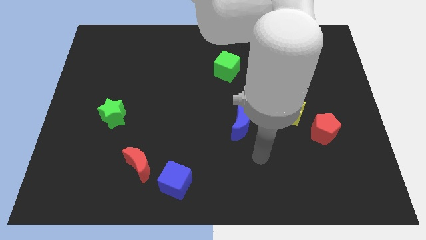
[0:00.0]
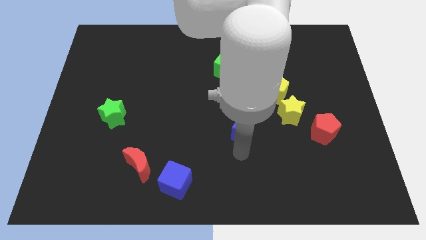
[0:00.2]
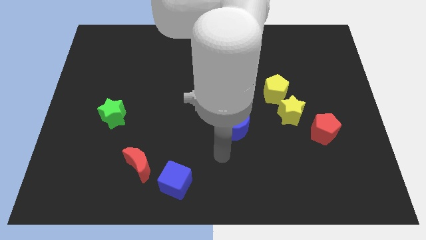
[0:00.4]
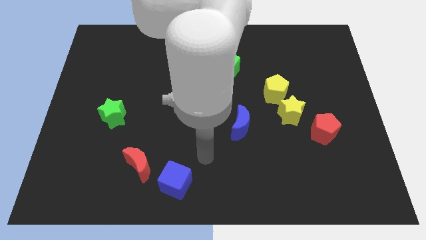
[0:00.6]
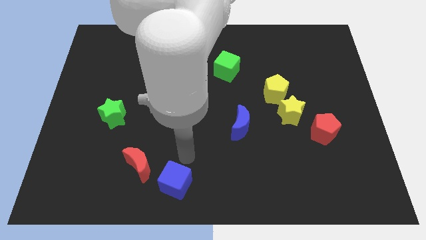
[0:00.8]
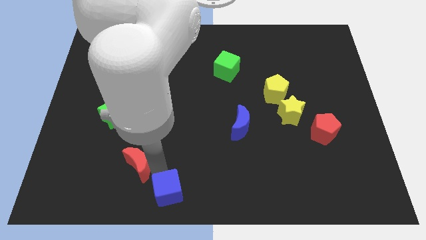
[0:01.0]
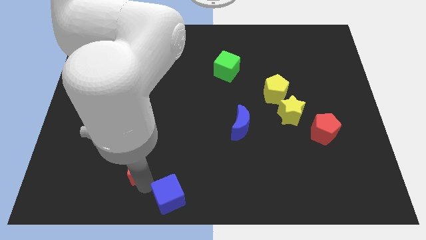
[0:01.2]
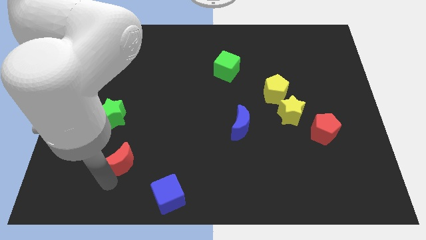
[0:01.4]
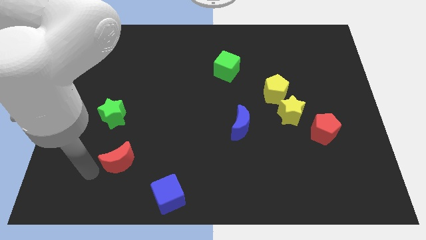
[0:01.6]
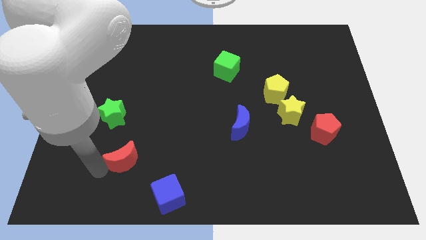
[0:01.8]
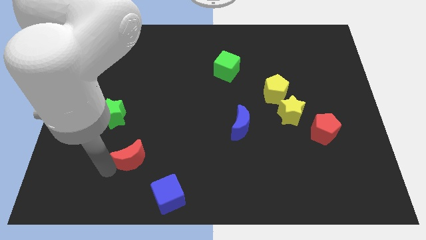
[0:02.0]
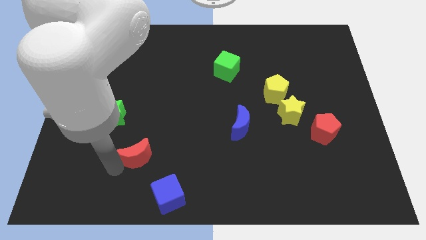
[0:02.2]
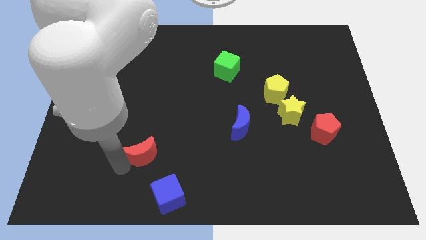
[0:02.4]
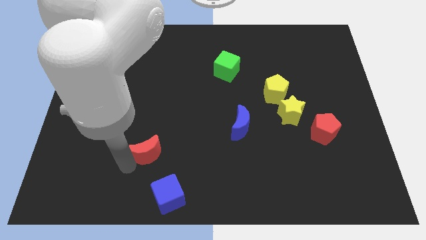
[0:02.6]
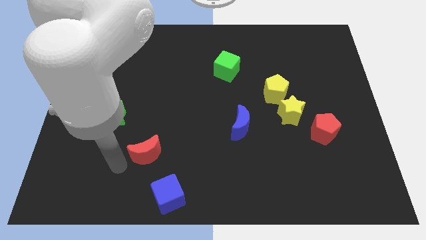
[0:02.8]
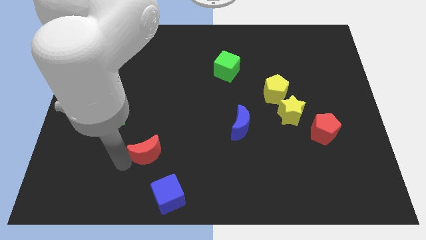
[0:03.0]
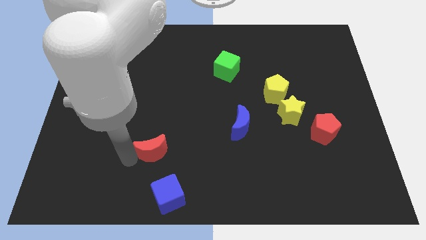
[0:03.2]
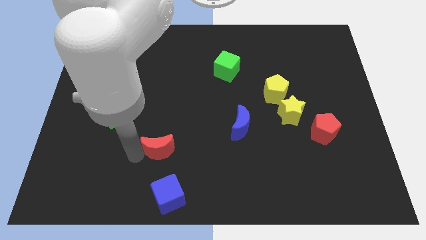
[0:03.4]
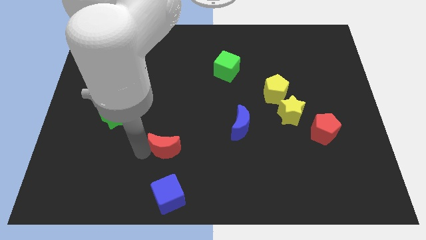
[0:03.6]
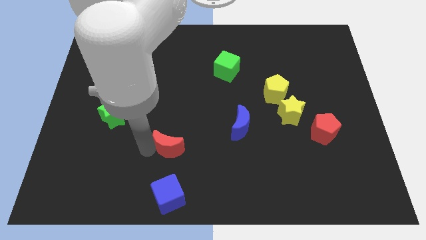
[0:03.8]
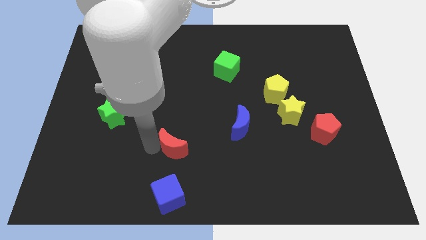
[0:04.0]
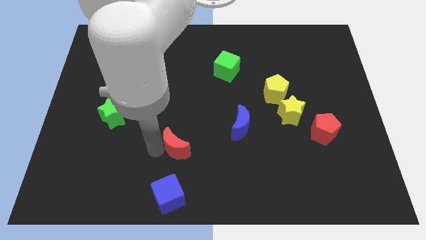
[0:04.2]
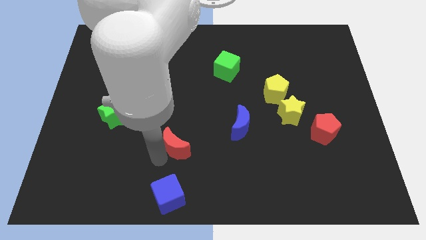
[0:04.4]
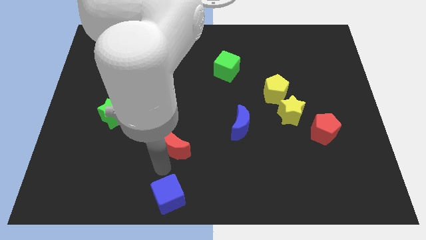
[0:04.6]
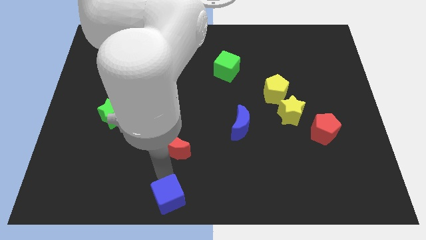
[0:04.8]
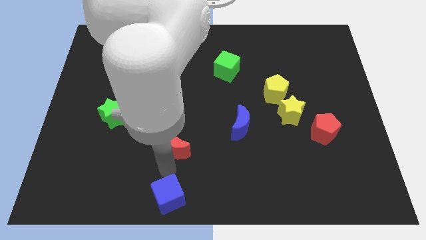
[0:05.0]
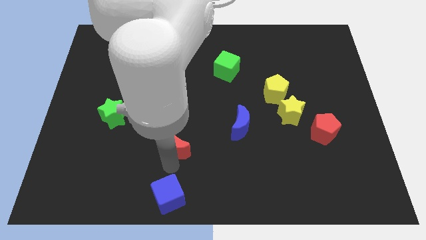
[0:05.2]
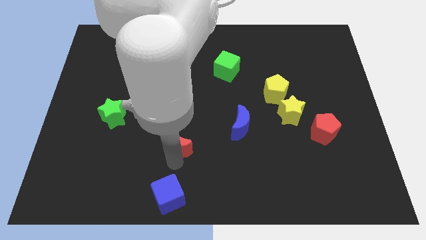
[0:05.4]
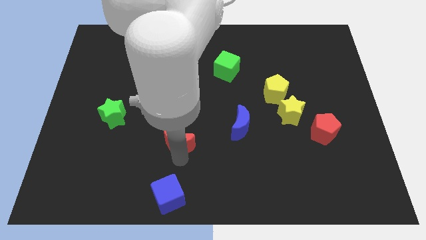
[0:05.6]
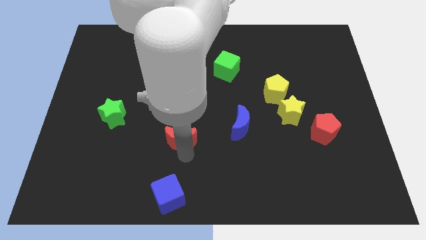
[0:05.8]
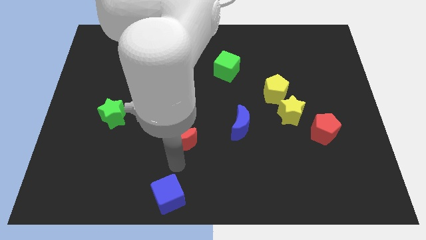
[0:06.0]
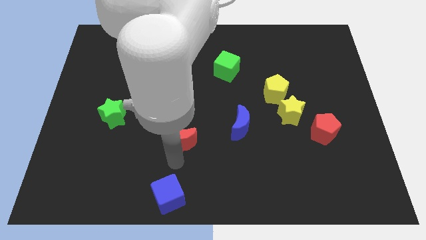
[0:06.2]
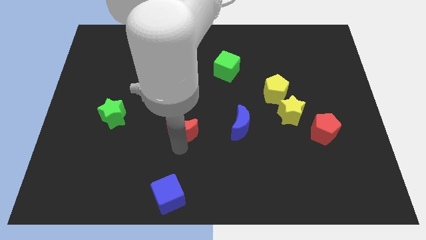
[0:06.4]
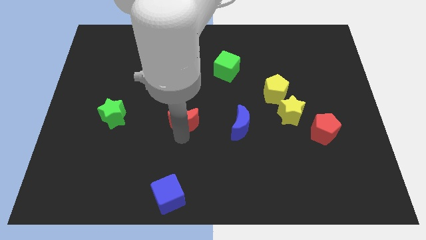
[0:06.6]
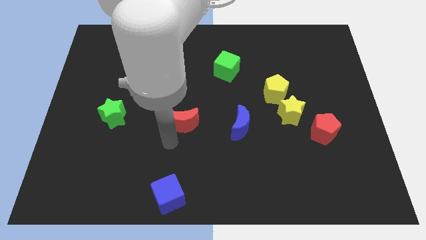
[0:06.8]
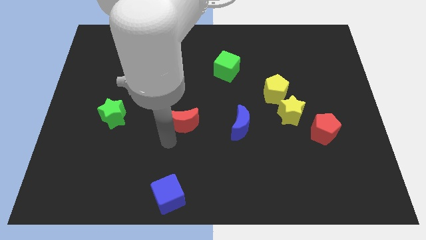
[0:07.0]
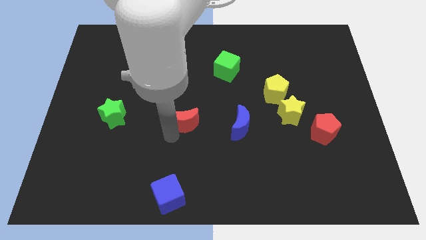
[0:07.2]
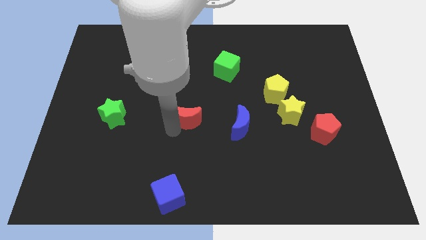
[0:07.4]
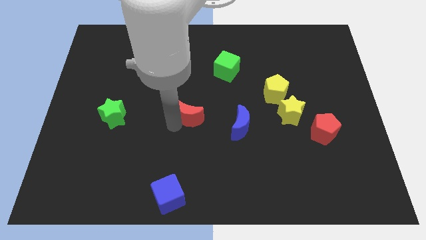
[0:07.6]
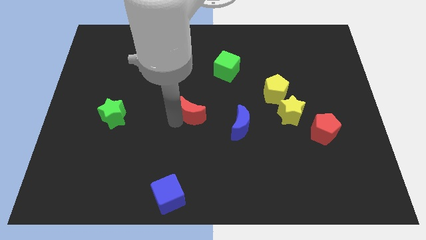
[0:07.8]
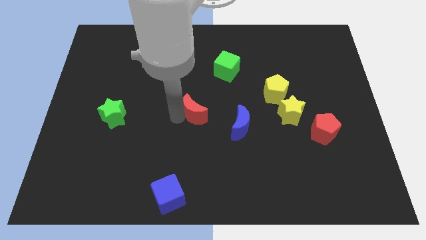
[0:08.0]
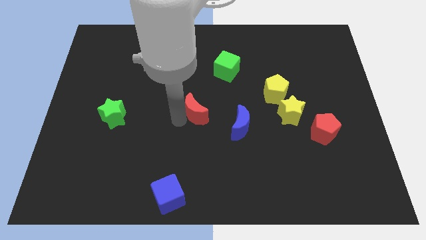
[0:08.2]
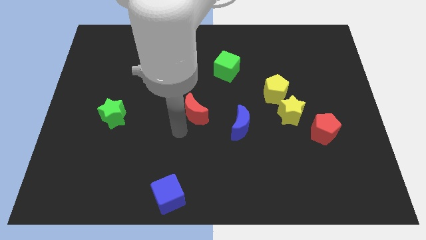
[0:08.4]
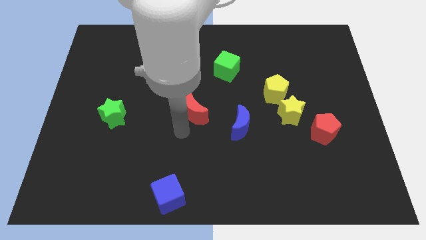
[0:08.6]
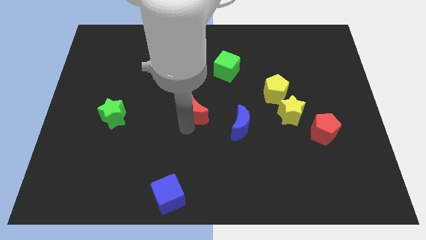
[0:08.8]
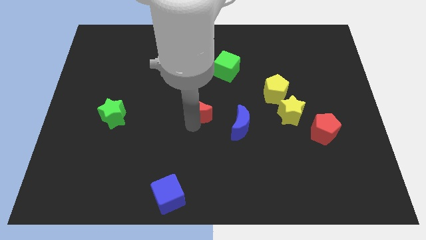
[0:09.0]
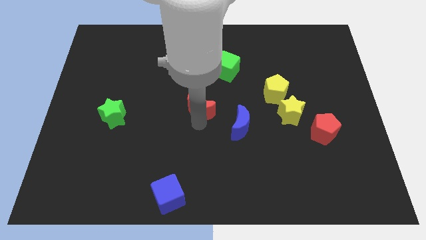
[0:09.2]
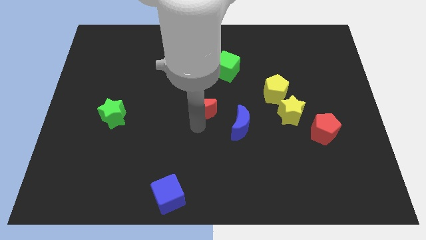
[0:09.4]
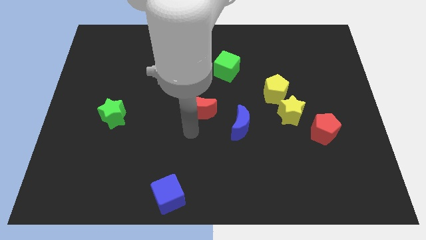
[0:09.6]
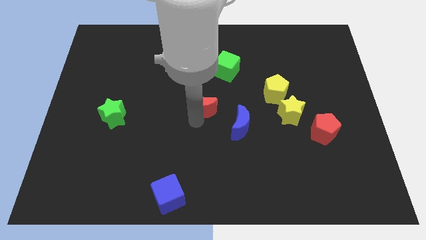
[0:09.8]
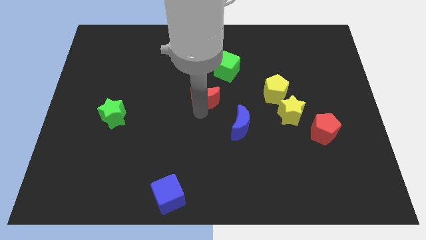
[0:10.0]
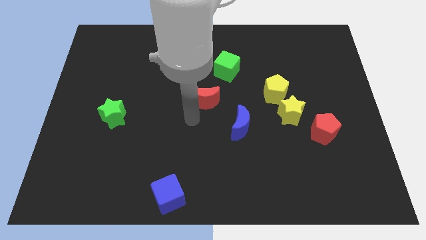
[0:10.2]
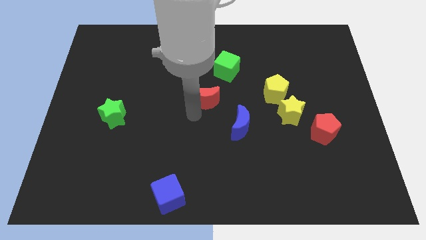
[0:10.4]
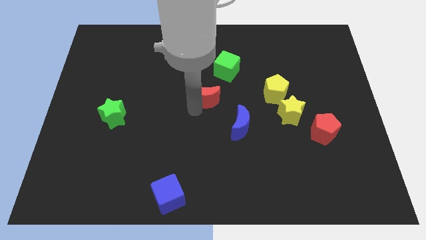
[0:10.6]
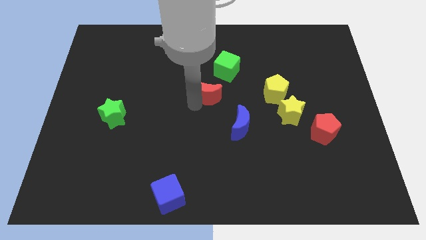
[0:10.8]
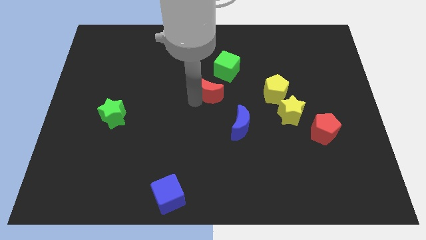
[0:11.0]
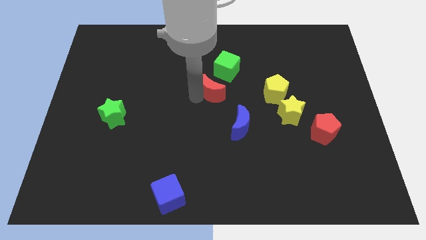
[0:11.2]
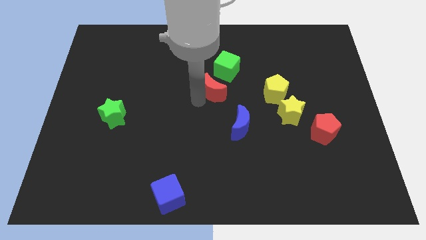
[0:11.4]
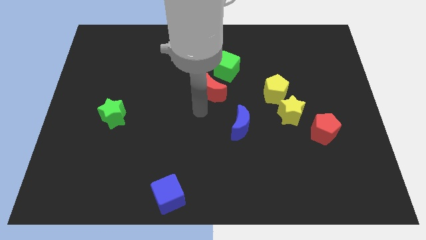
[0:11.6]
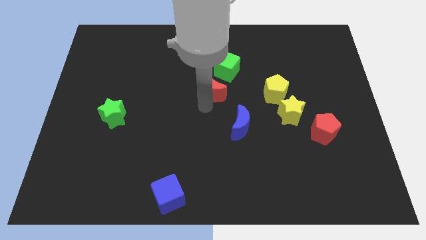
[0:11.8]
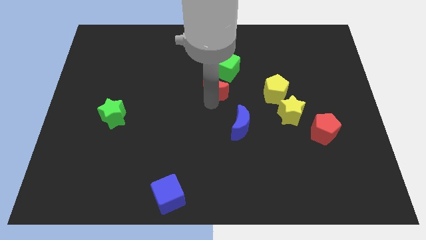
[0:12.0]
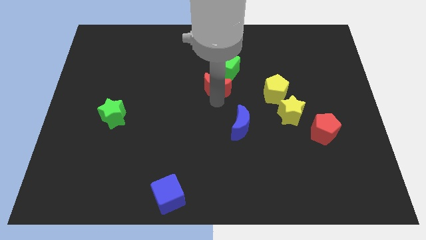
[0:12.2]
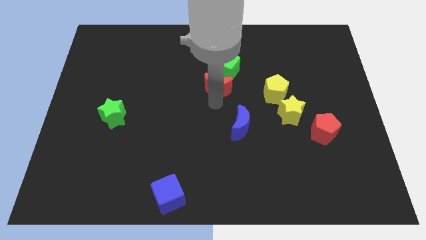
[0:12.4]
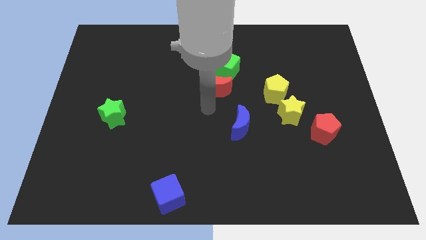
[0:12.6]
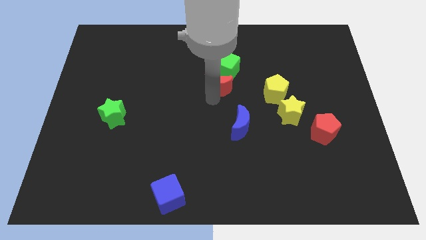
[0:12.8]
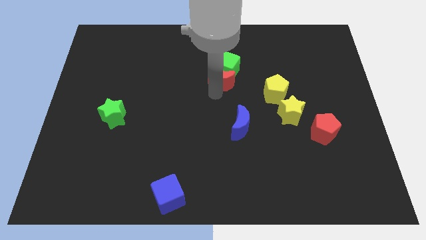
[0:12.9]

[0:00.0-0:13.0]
move the red moon to the green cube

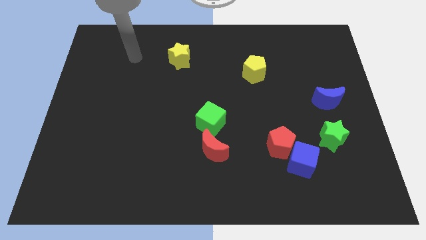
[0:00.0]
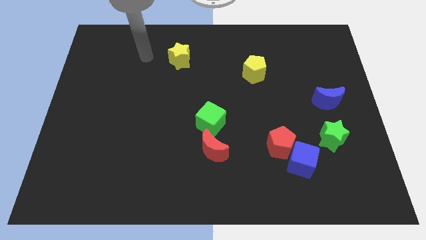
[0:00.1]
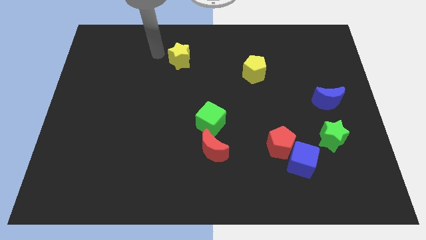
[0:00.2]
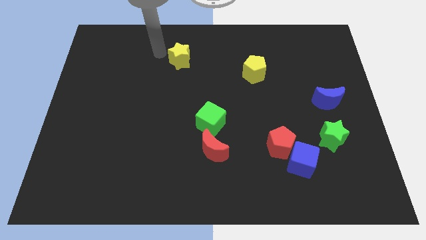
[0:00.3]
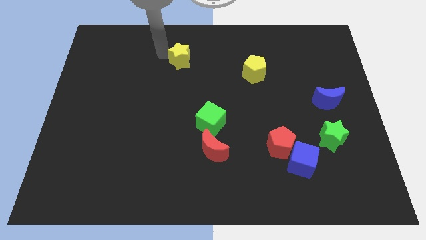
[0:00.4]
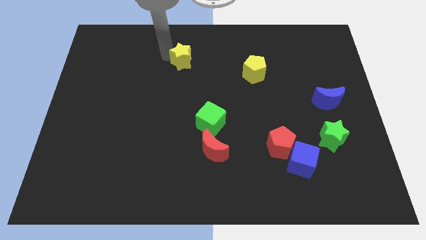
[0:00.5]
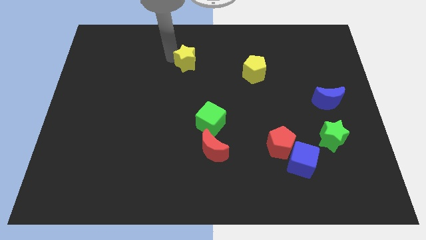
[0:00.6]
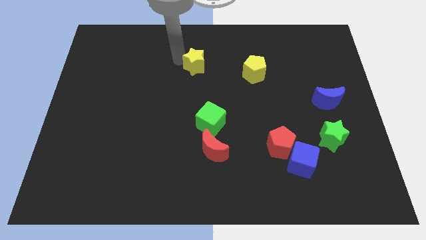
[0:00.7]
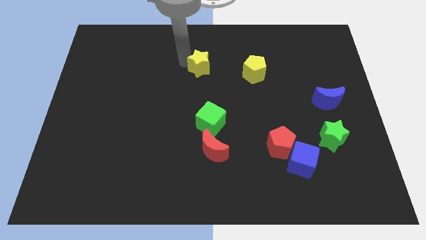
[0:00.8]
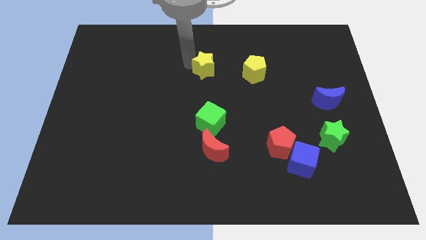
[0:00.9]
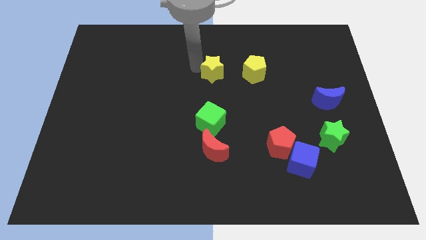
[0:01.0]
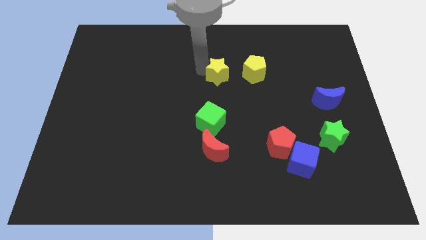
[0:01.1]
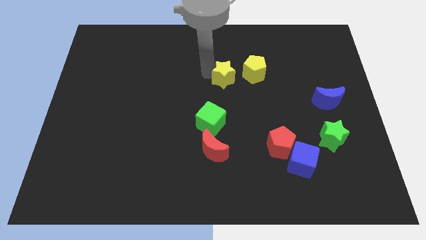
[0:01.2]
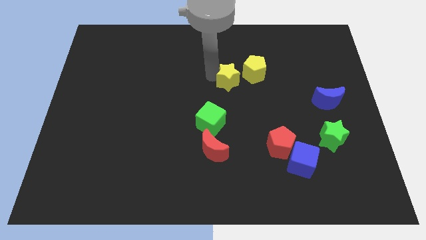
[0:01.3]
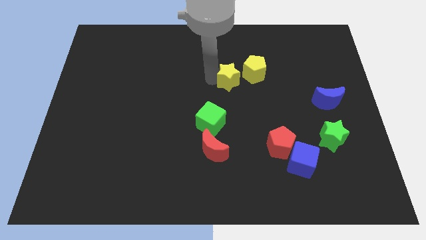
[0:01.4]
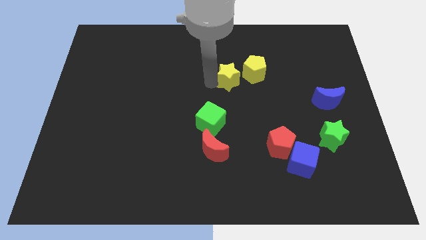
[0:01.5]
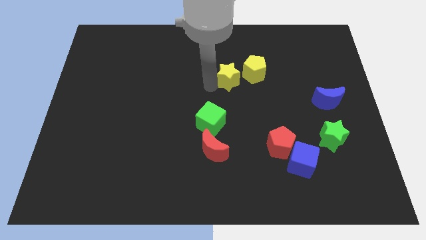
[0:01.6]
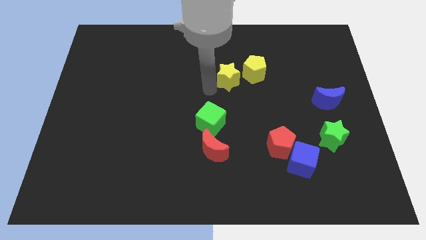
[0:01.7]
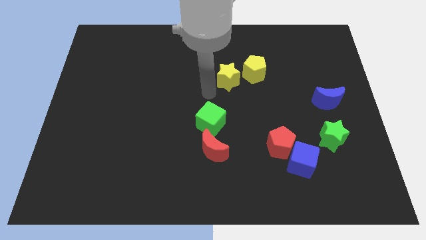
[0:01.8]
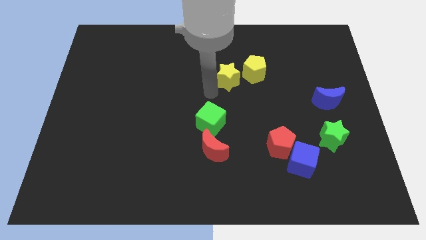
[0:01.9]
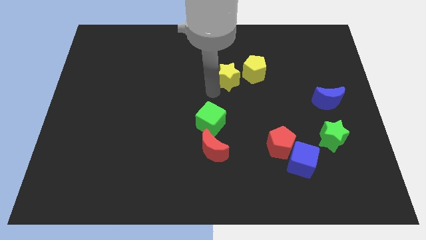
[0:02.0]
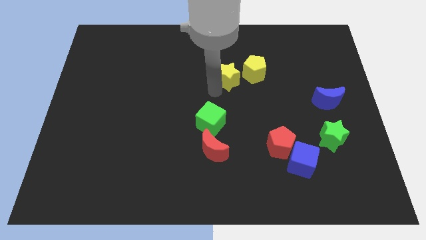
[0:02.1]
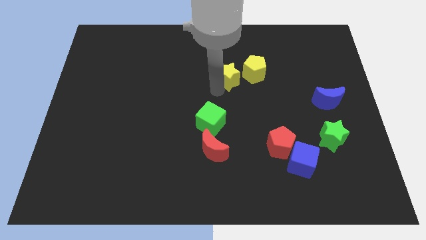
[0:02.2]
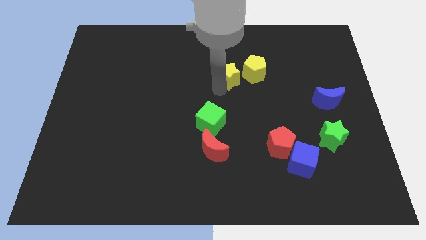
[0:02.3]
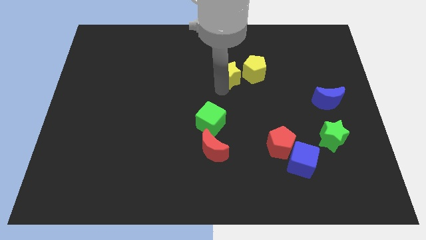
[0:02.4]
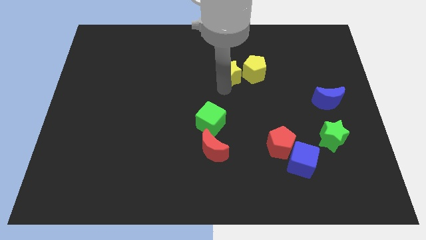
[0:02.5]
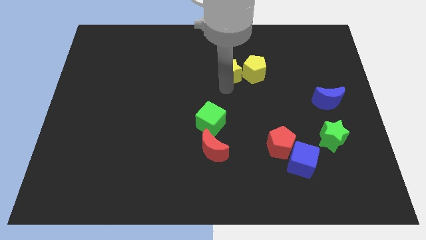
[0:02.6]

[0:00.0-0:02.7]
slide the yellow star to the yellow pentagon
